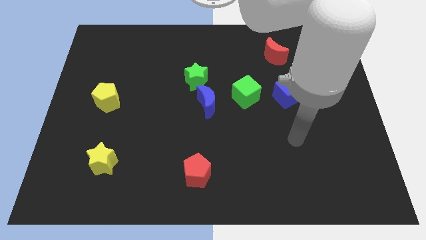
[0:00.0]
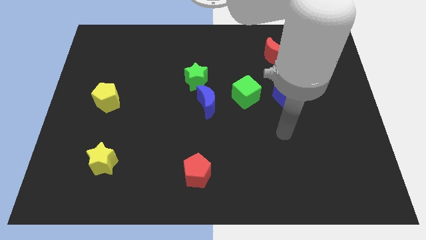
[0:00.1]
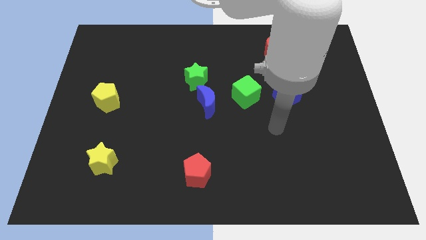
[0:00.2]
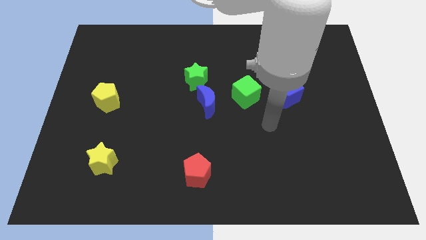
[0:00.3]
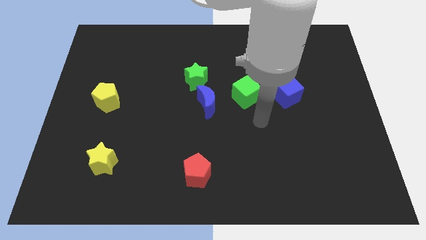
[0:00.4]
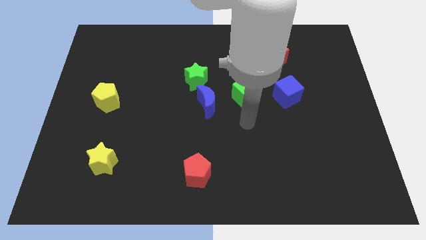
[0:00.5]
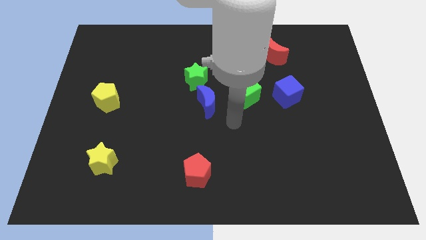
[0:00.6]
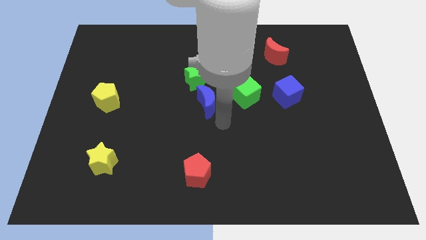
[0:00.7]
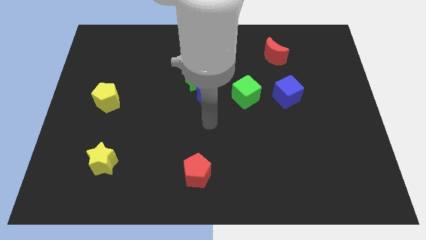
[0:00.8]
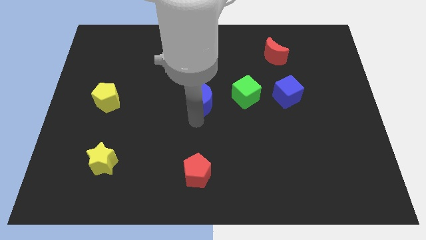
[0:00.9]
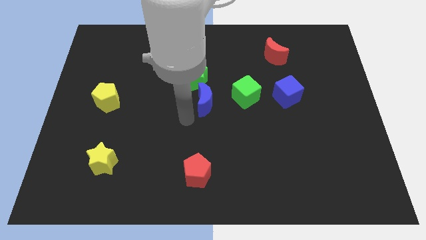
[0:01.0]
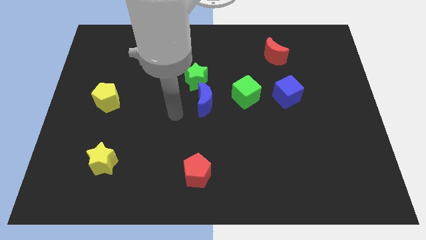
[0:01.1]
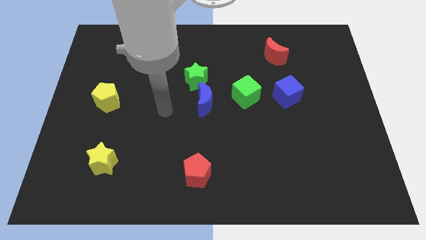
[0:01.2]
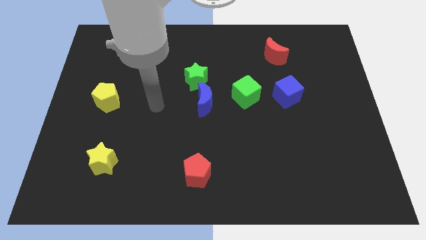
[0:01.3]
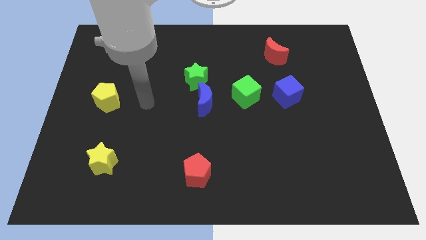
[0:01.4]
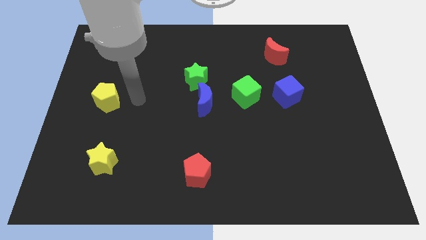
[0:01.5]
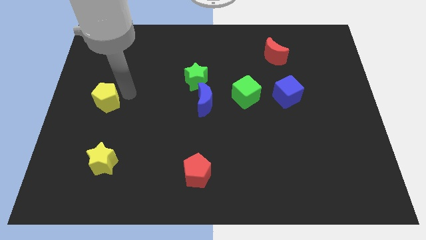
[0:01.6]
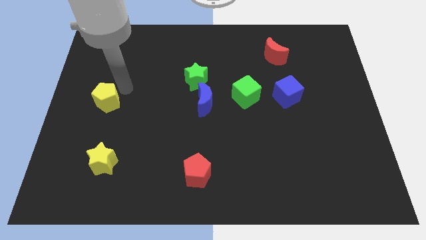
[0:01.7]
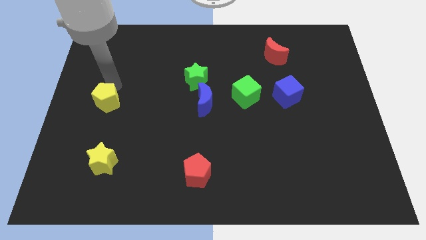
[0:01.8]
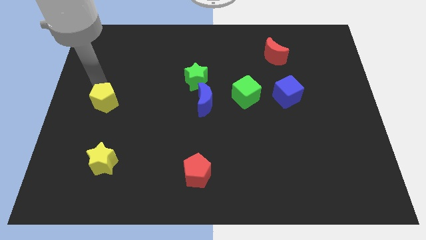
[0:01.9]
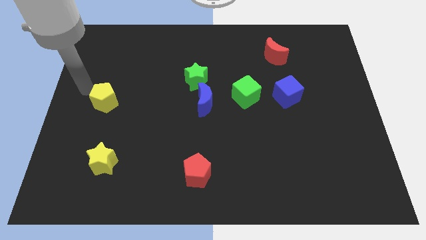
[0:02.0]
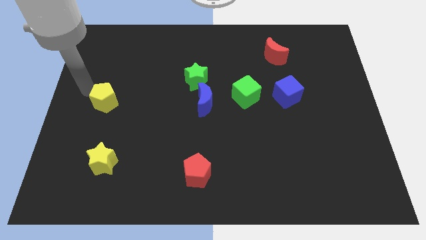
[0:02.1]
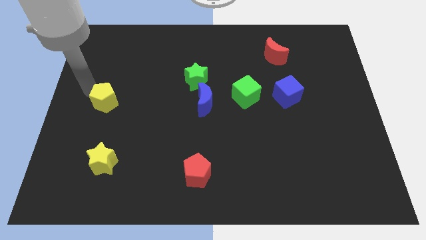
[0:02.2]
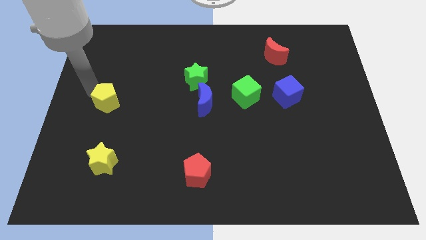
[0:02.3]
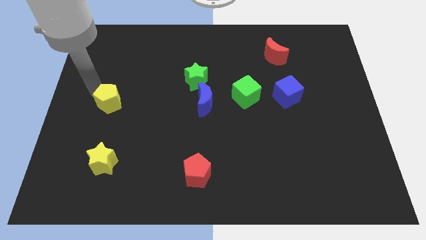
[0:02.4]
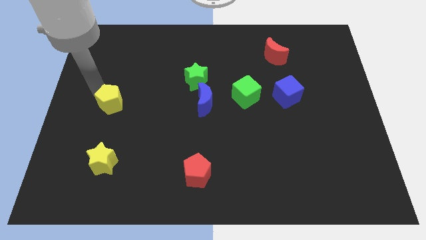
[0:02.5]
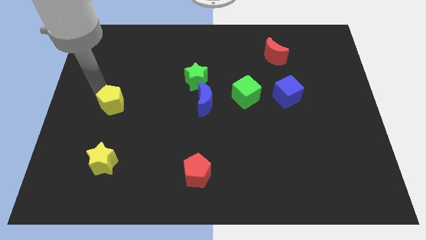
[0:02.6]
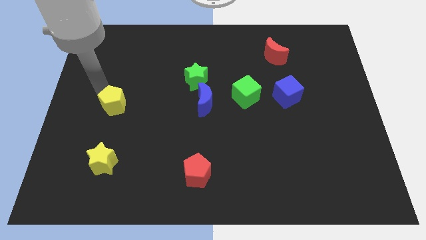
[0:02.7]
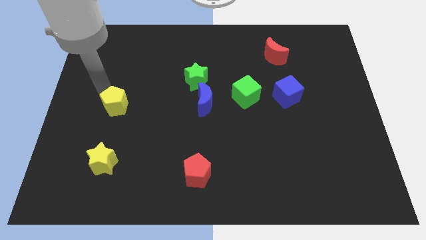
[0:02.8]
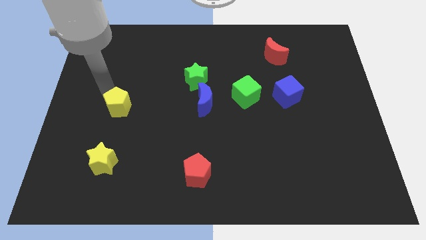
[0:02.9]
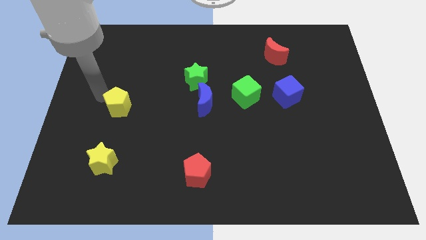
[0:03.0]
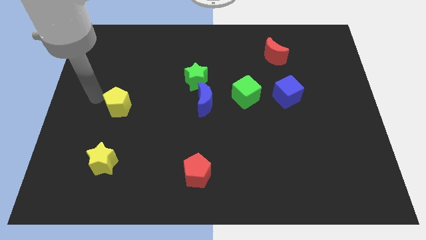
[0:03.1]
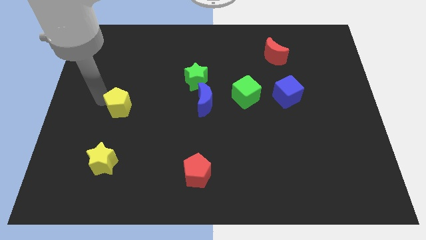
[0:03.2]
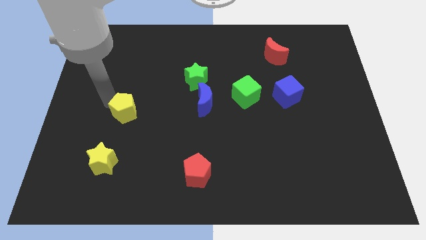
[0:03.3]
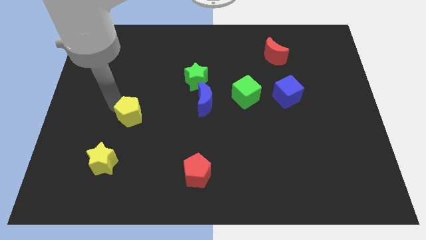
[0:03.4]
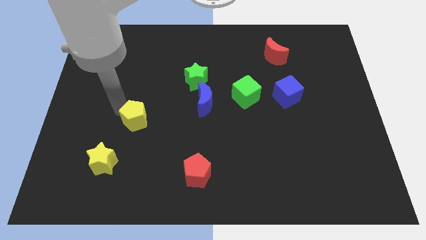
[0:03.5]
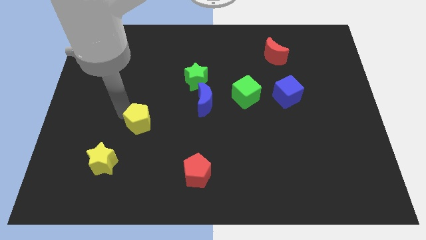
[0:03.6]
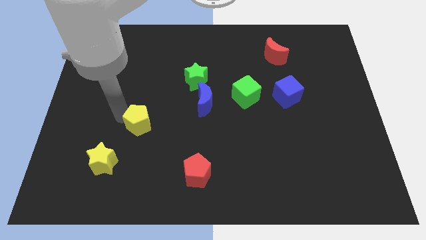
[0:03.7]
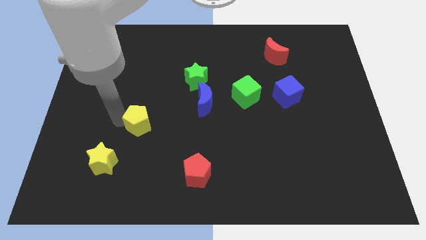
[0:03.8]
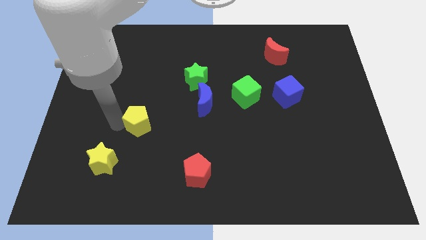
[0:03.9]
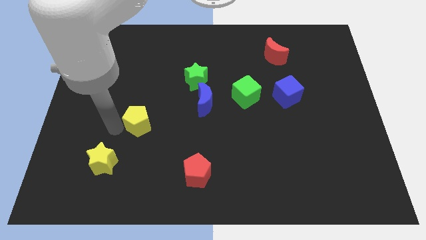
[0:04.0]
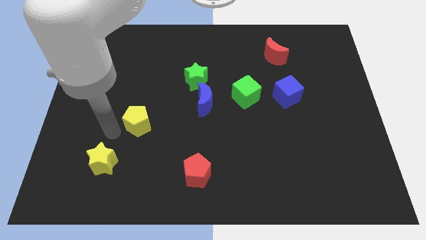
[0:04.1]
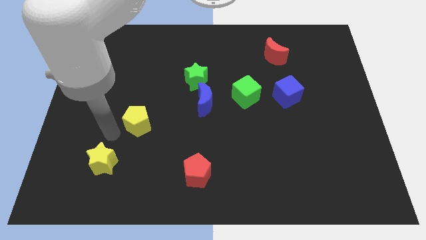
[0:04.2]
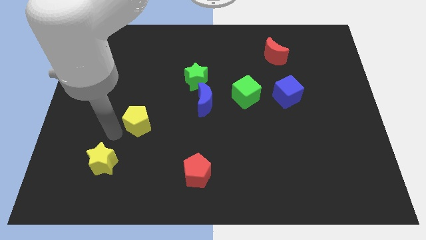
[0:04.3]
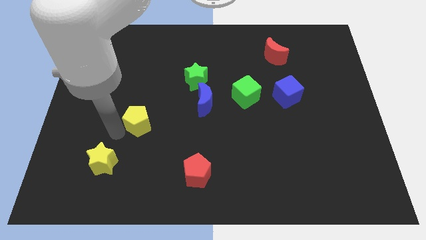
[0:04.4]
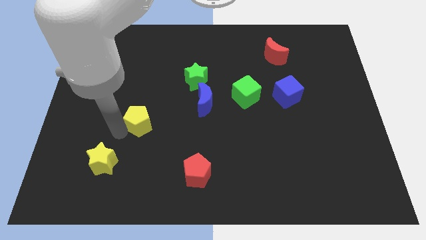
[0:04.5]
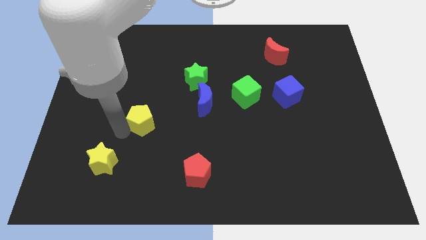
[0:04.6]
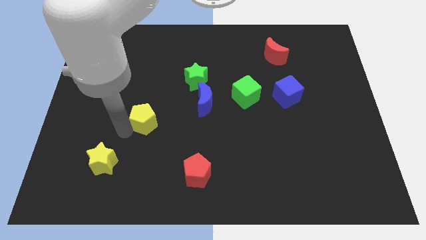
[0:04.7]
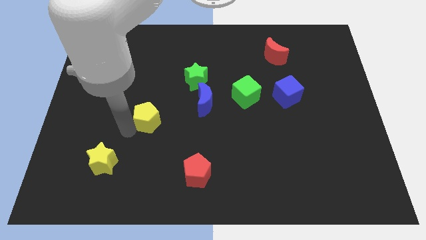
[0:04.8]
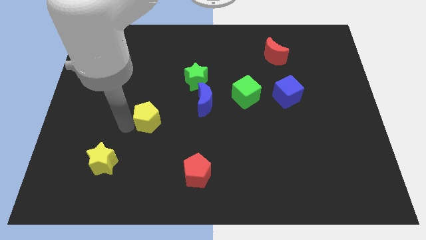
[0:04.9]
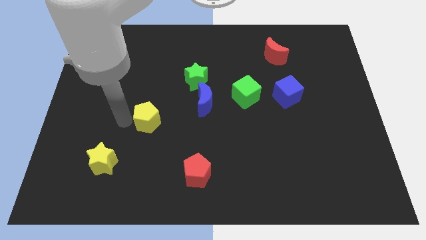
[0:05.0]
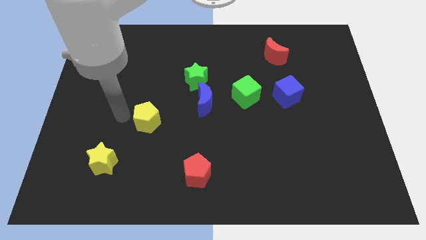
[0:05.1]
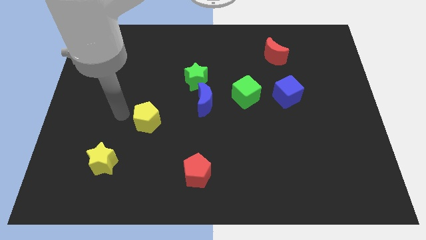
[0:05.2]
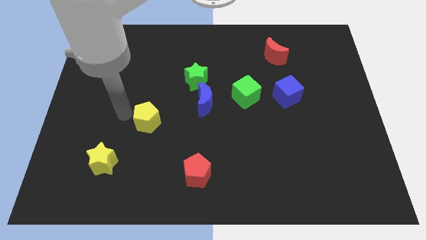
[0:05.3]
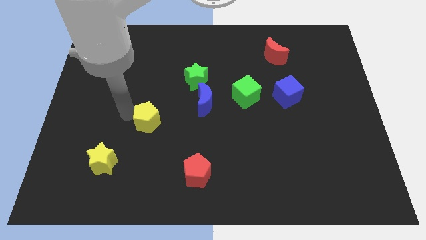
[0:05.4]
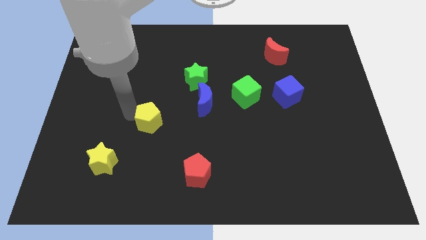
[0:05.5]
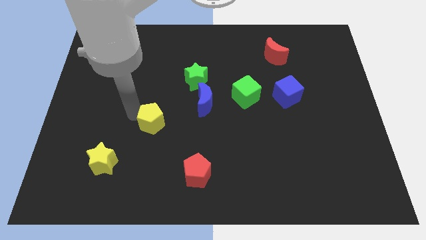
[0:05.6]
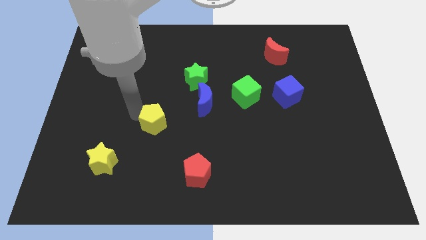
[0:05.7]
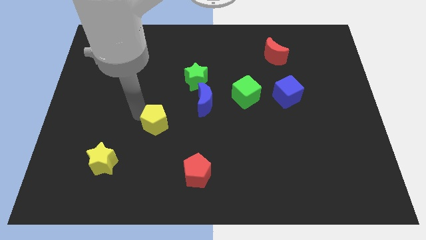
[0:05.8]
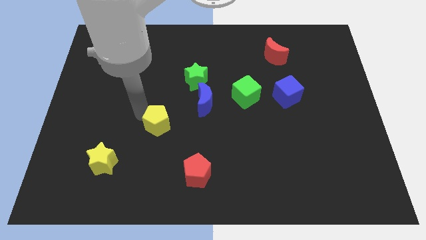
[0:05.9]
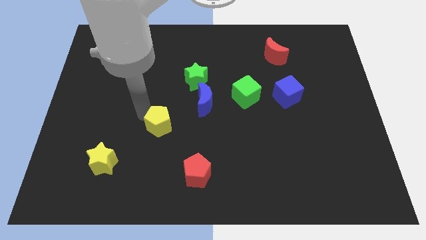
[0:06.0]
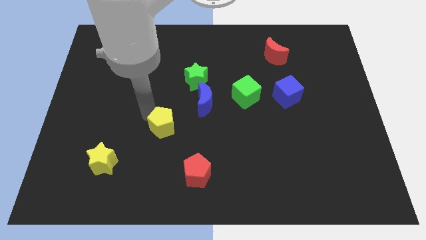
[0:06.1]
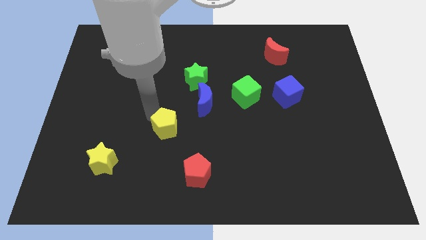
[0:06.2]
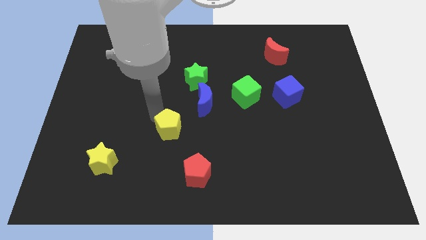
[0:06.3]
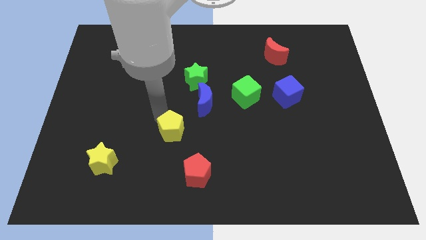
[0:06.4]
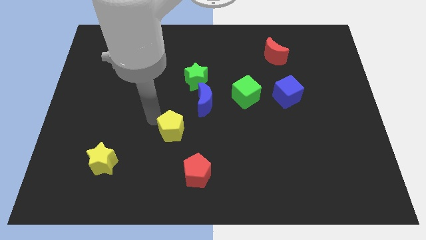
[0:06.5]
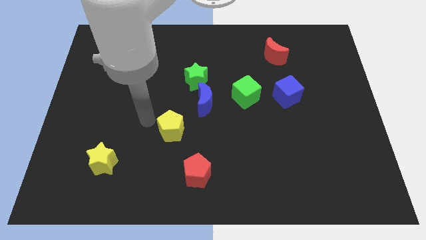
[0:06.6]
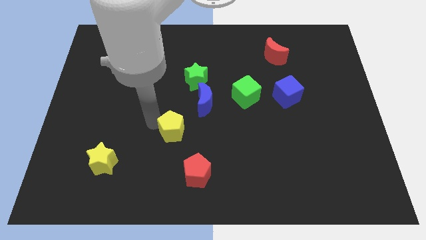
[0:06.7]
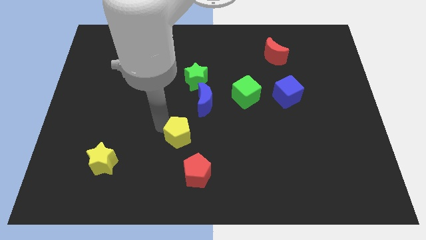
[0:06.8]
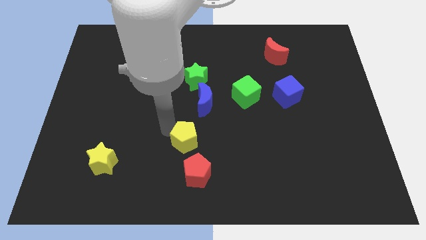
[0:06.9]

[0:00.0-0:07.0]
push the yellow pentagon to the bottom side of the blue moon
